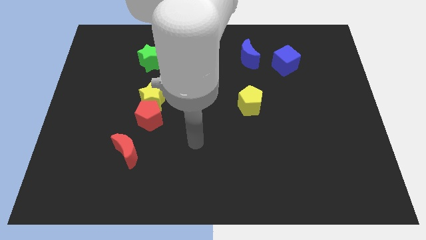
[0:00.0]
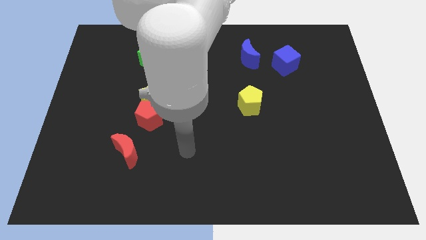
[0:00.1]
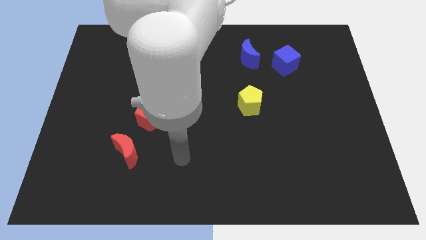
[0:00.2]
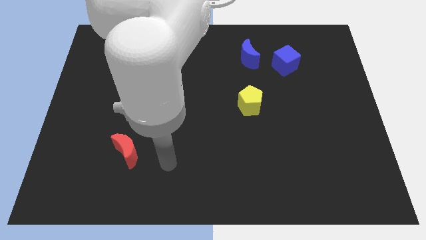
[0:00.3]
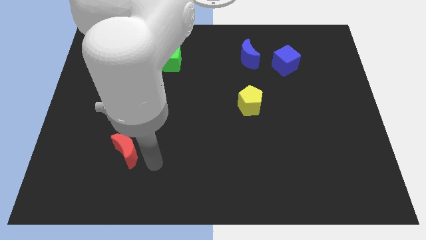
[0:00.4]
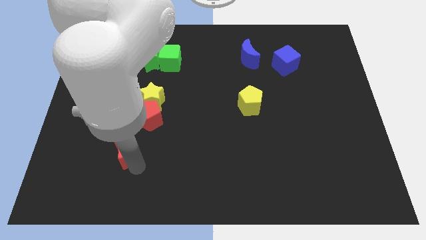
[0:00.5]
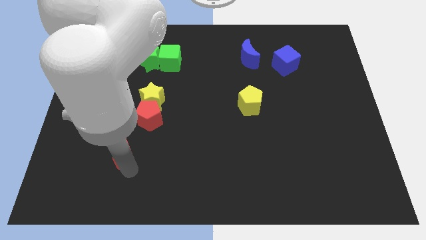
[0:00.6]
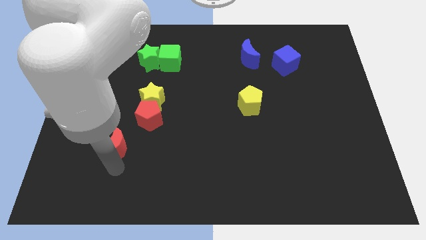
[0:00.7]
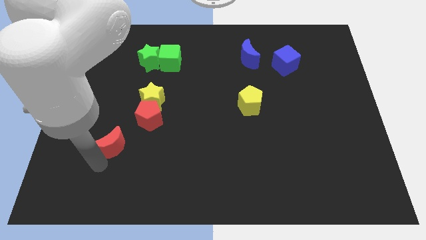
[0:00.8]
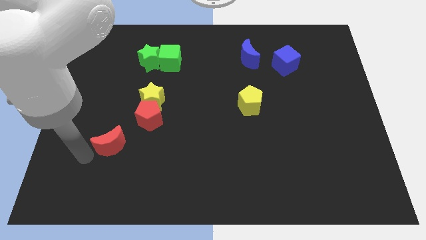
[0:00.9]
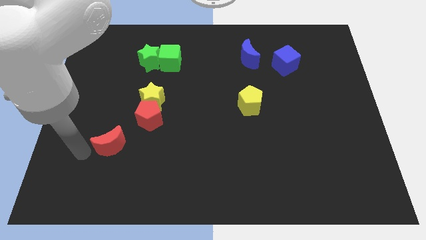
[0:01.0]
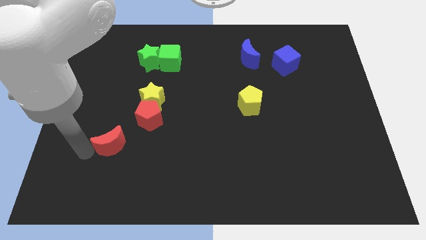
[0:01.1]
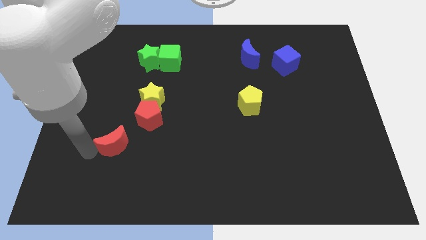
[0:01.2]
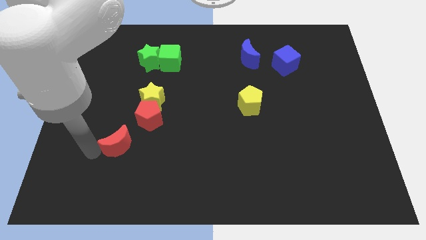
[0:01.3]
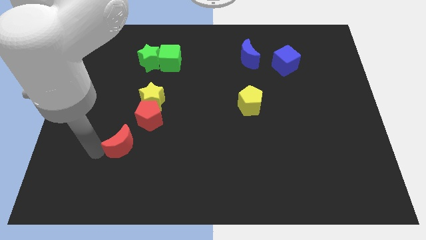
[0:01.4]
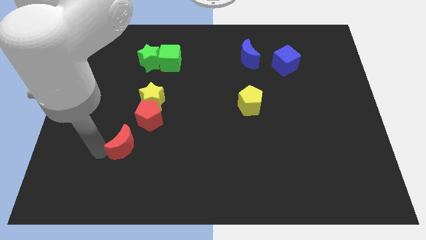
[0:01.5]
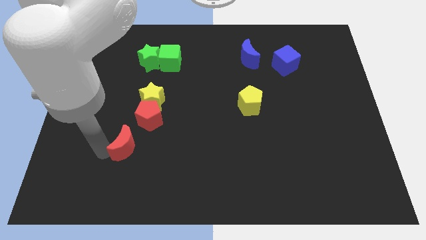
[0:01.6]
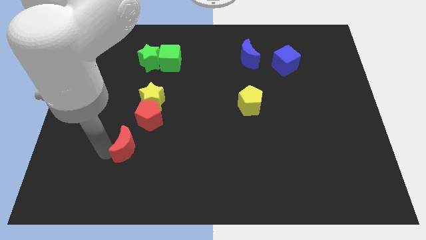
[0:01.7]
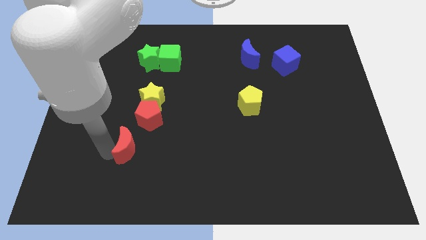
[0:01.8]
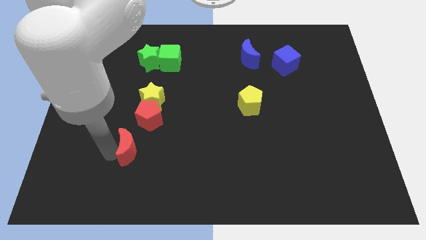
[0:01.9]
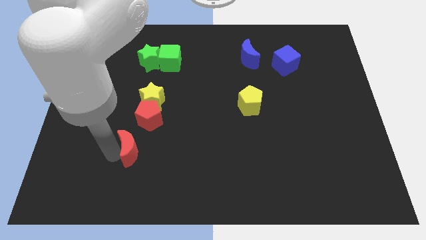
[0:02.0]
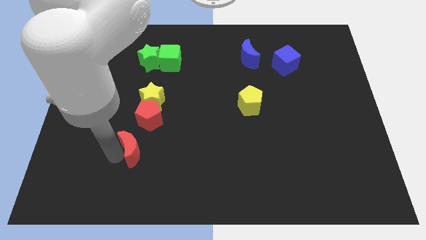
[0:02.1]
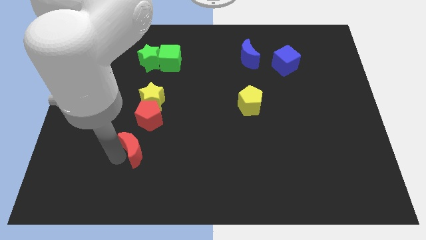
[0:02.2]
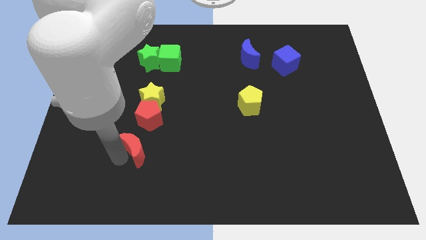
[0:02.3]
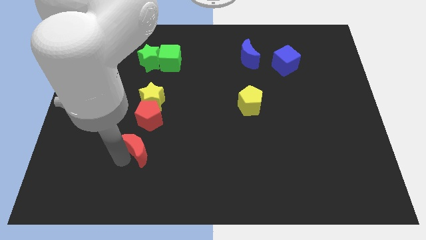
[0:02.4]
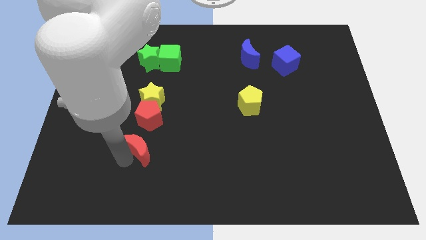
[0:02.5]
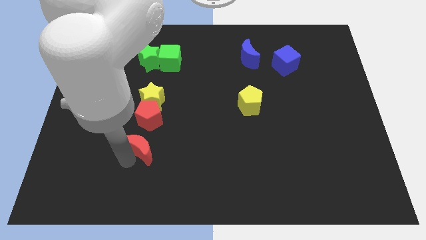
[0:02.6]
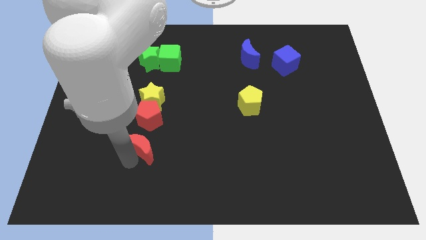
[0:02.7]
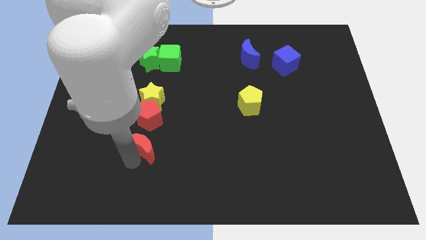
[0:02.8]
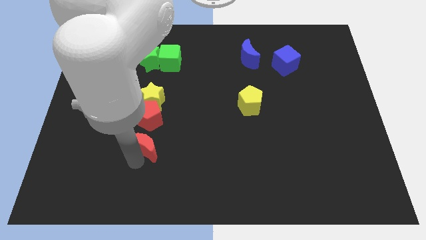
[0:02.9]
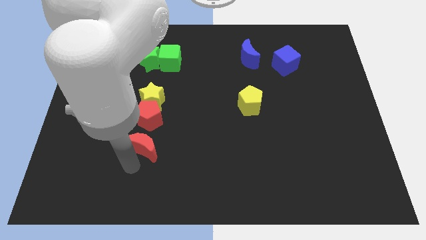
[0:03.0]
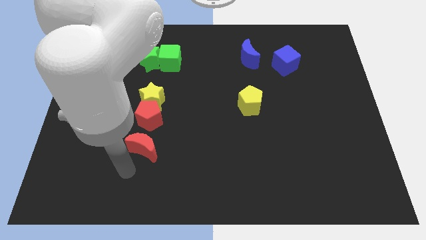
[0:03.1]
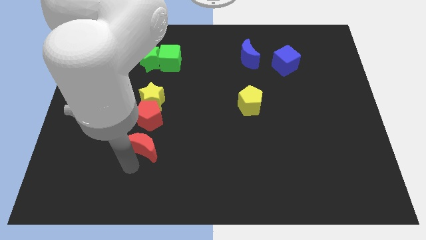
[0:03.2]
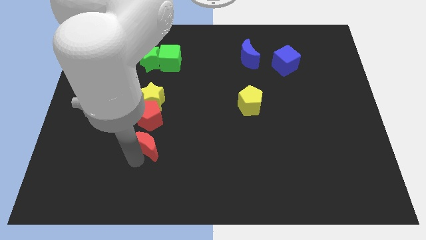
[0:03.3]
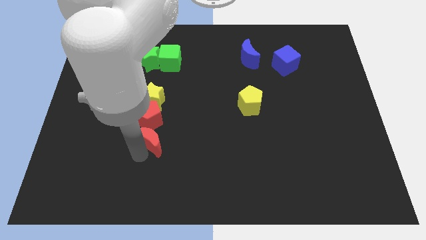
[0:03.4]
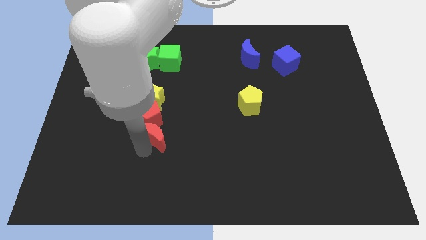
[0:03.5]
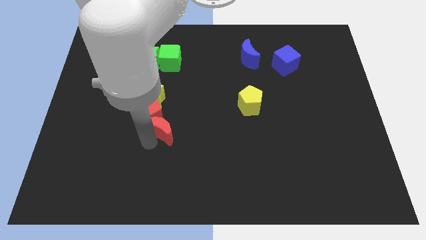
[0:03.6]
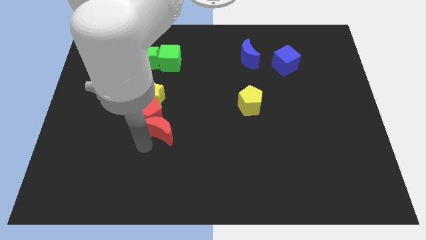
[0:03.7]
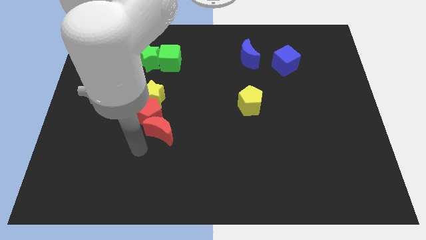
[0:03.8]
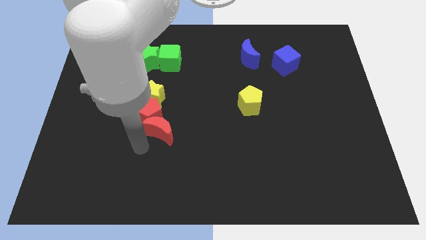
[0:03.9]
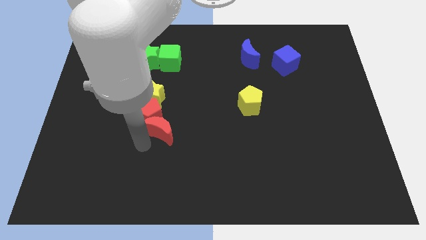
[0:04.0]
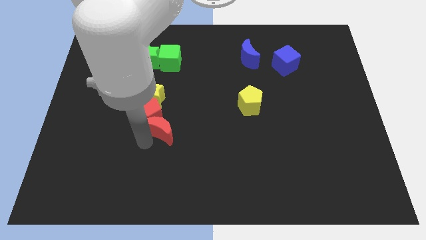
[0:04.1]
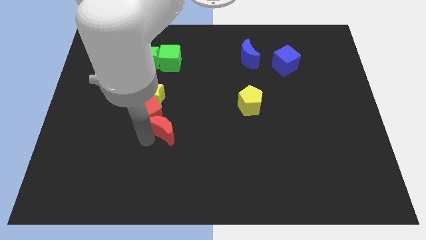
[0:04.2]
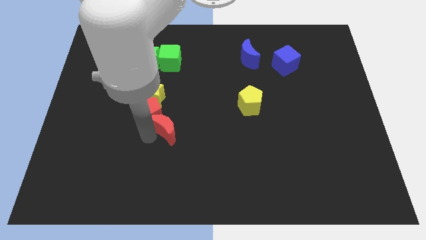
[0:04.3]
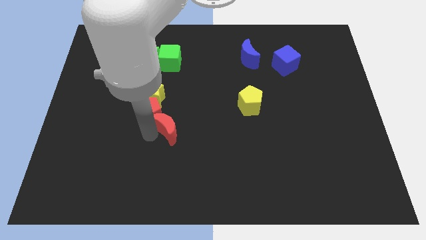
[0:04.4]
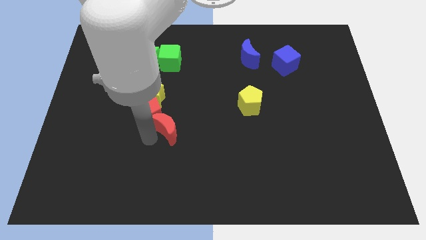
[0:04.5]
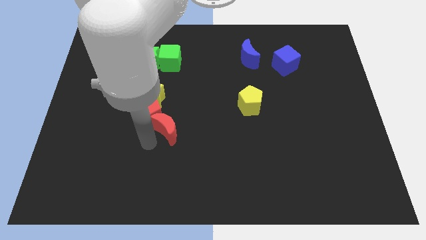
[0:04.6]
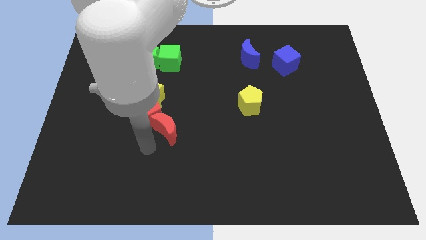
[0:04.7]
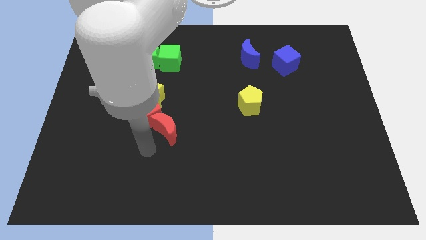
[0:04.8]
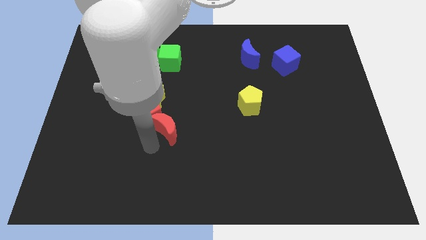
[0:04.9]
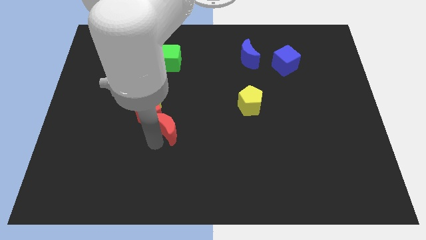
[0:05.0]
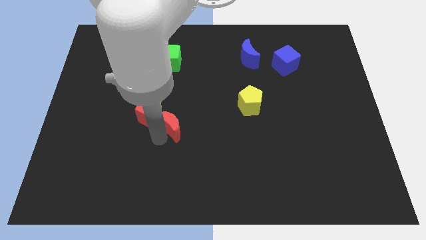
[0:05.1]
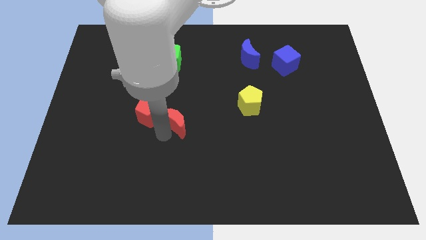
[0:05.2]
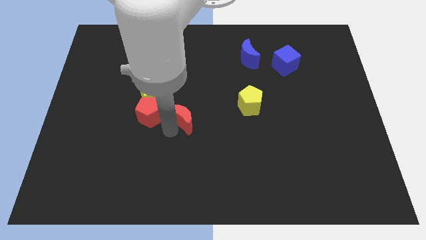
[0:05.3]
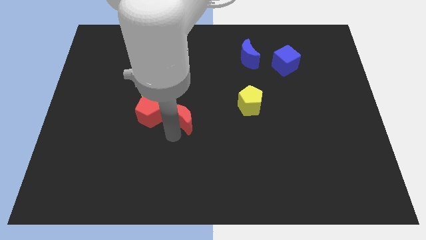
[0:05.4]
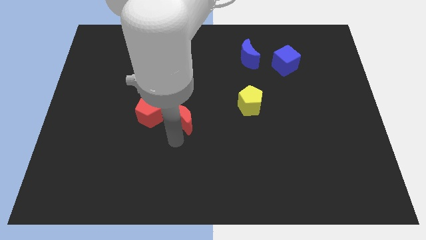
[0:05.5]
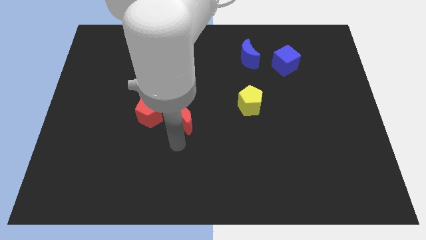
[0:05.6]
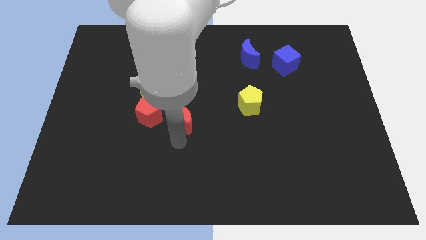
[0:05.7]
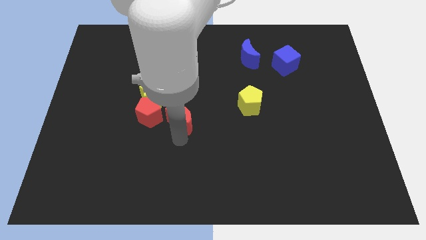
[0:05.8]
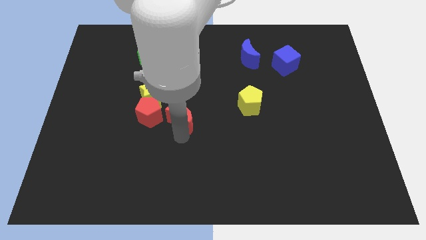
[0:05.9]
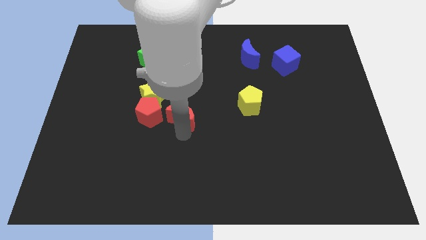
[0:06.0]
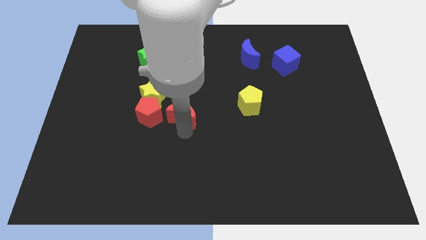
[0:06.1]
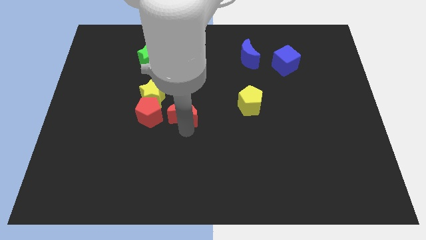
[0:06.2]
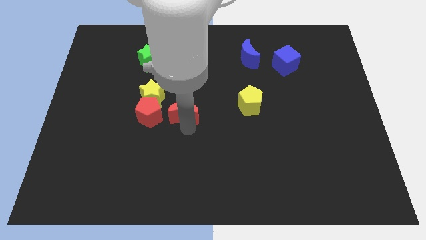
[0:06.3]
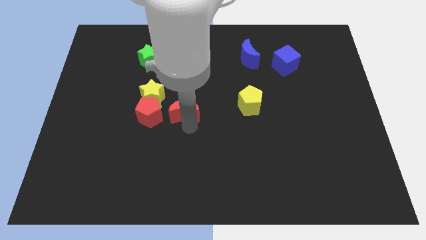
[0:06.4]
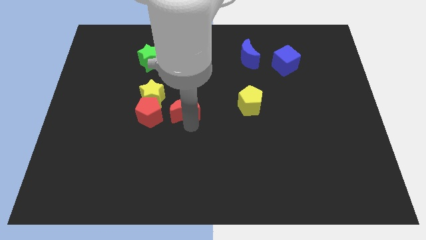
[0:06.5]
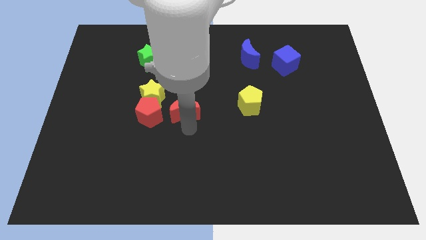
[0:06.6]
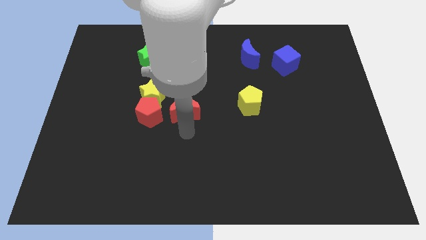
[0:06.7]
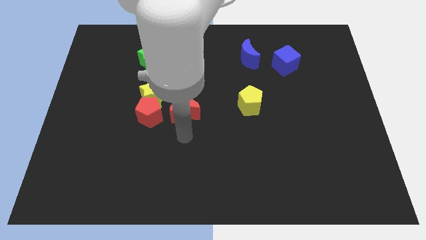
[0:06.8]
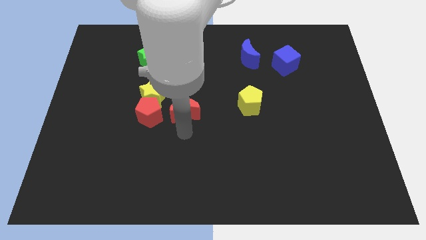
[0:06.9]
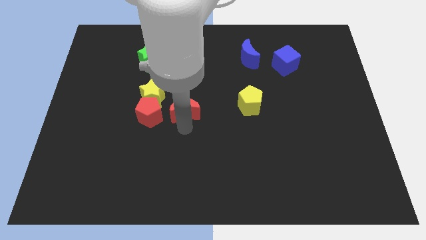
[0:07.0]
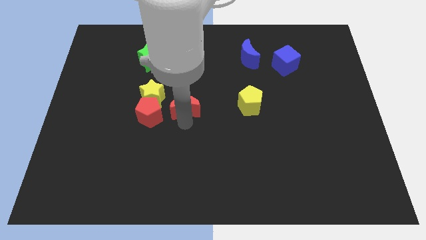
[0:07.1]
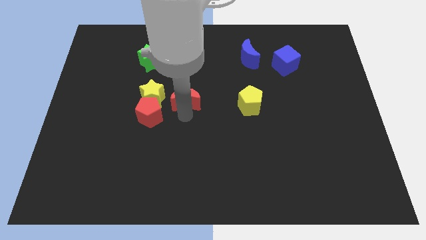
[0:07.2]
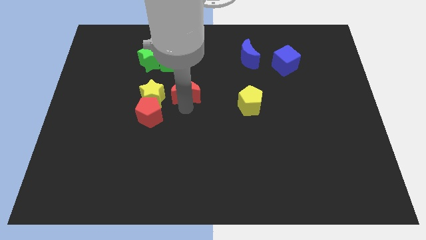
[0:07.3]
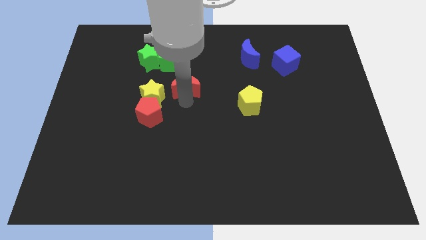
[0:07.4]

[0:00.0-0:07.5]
push the red moon to the bottom right of the green cube
